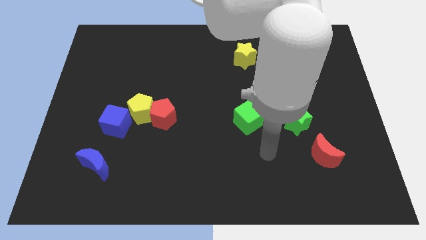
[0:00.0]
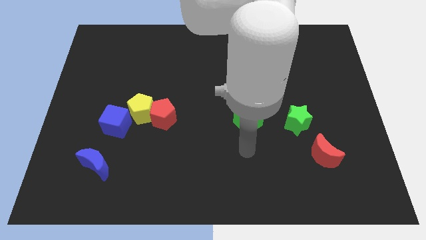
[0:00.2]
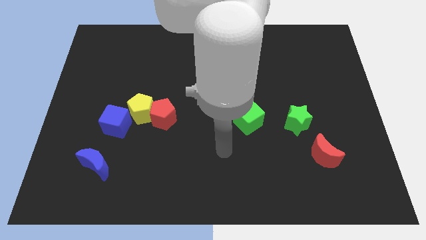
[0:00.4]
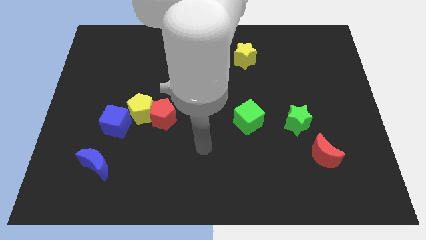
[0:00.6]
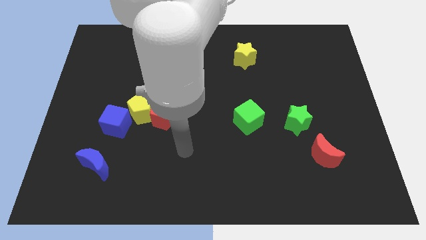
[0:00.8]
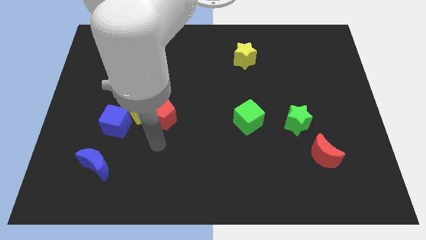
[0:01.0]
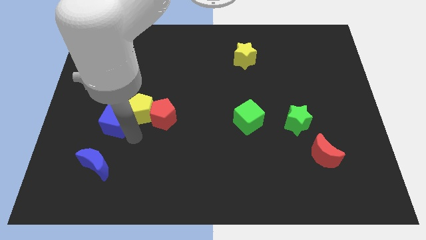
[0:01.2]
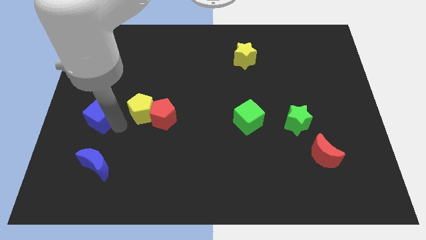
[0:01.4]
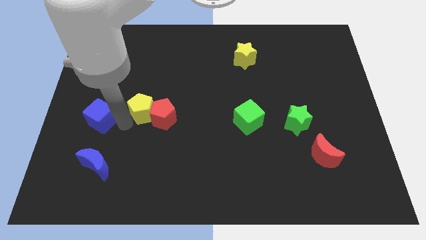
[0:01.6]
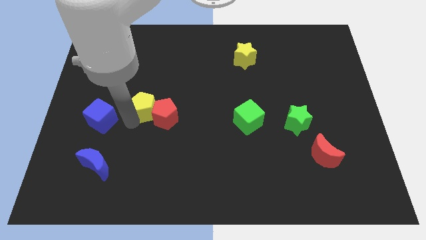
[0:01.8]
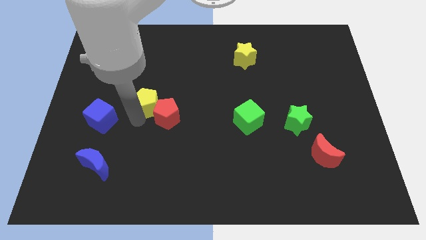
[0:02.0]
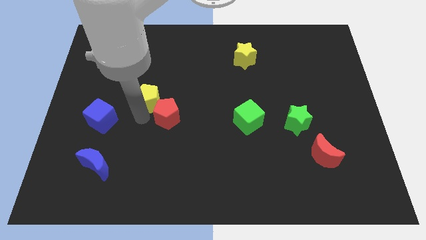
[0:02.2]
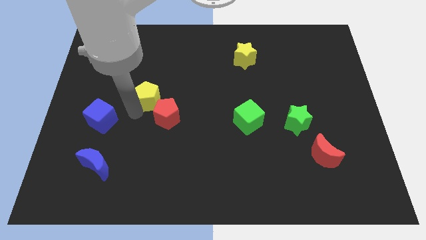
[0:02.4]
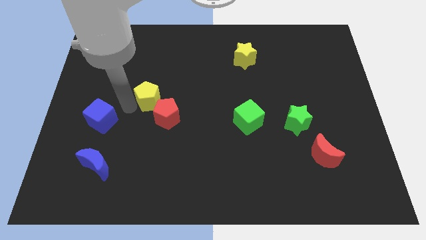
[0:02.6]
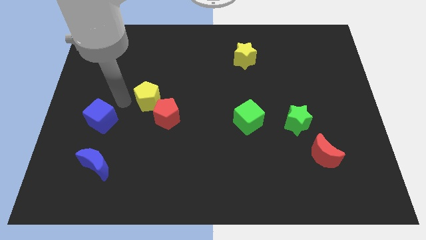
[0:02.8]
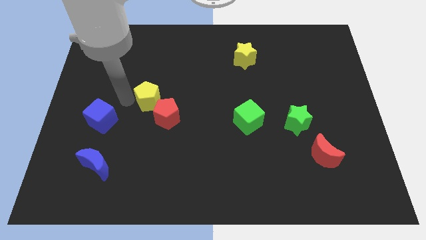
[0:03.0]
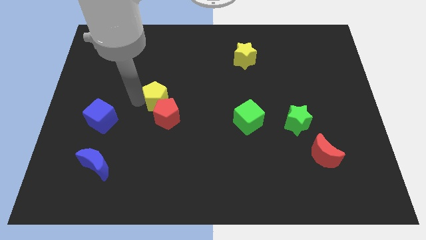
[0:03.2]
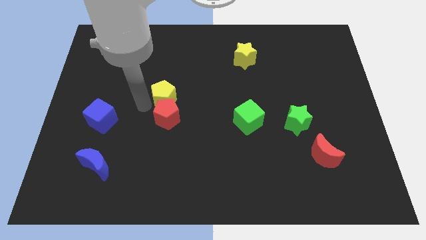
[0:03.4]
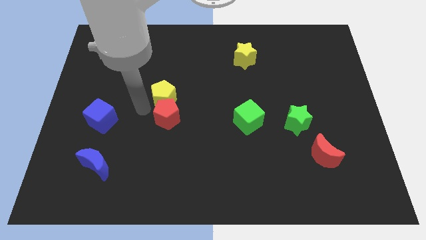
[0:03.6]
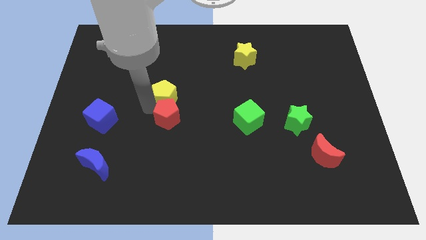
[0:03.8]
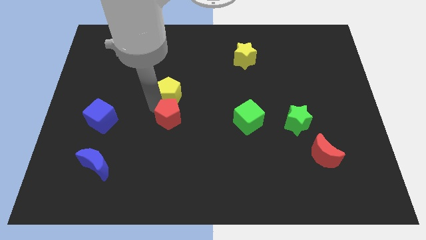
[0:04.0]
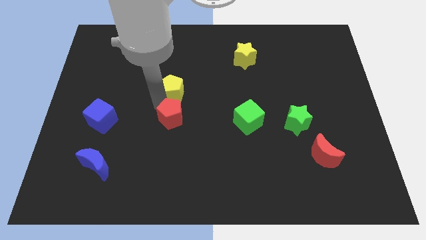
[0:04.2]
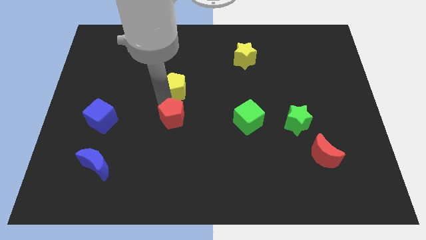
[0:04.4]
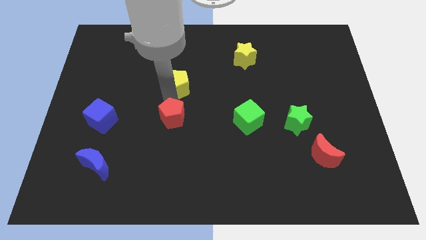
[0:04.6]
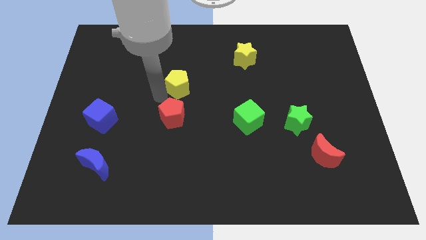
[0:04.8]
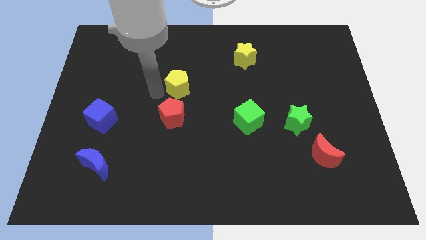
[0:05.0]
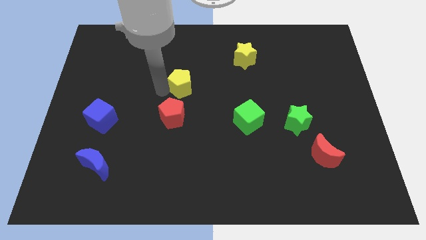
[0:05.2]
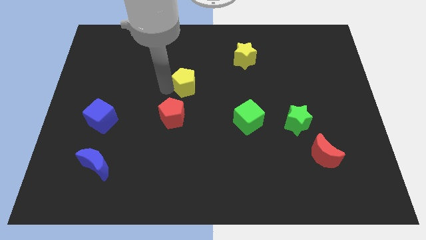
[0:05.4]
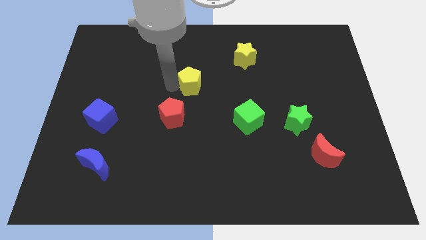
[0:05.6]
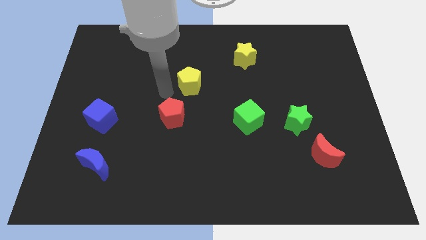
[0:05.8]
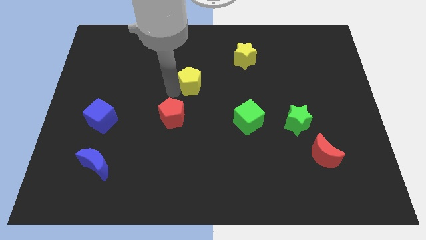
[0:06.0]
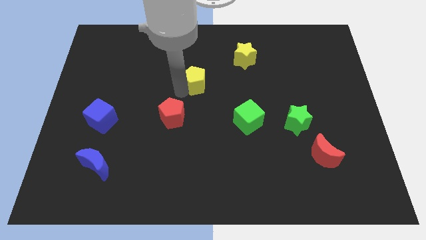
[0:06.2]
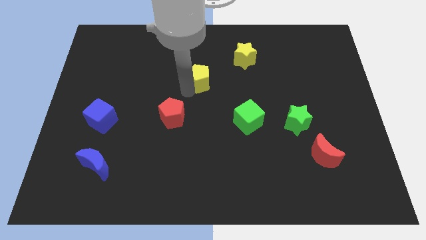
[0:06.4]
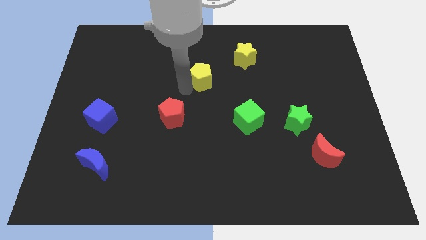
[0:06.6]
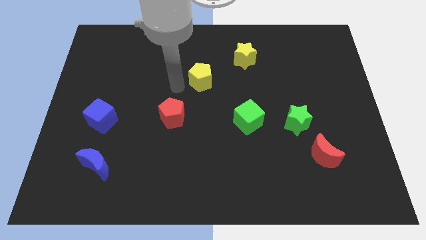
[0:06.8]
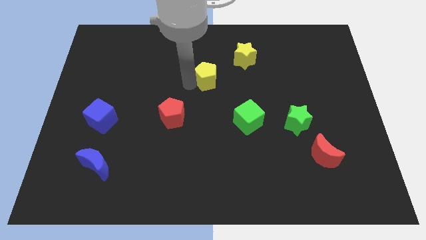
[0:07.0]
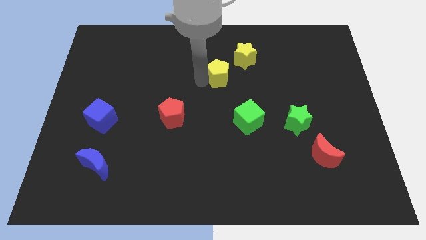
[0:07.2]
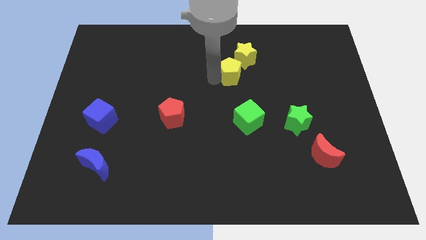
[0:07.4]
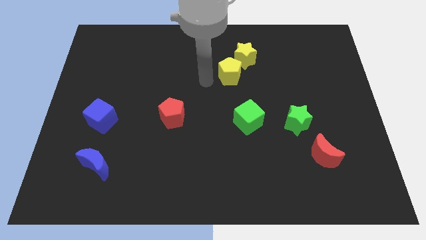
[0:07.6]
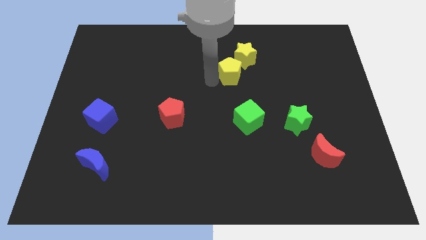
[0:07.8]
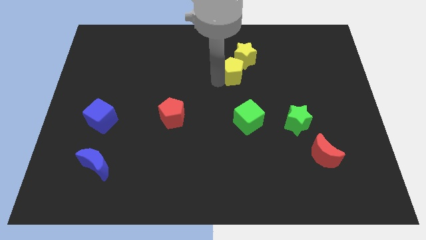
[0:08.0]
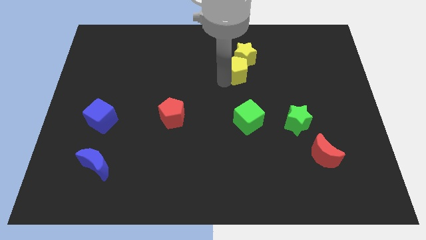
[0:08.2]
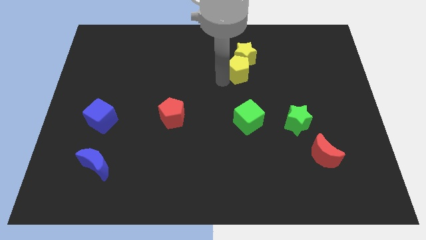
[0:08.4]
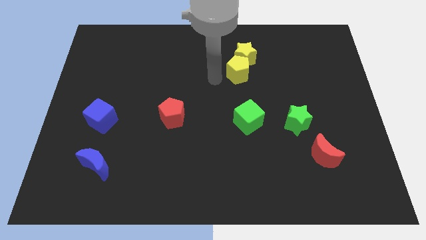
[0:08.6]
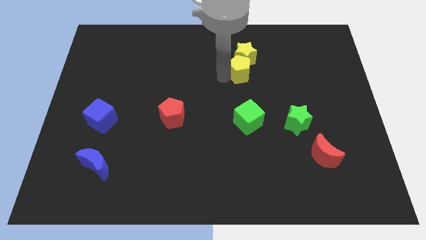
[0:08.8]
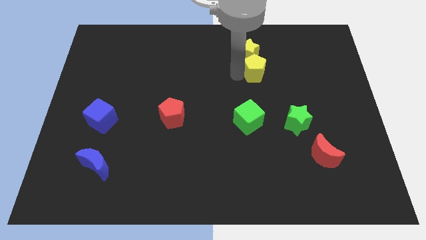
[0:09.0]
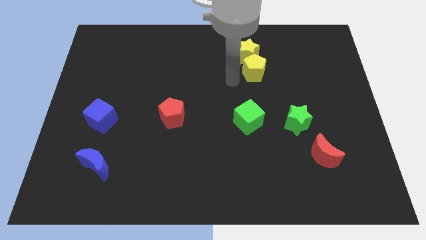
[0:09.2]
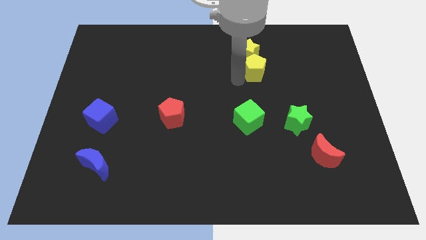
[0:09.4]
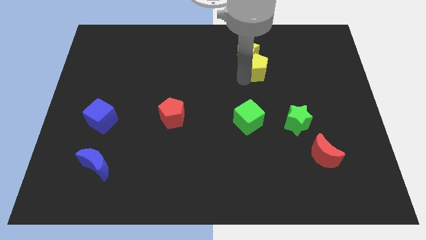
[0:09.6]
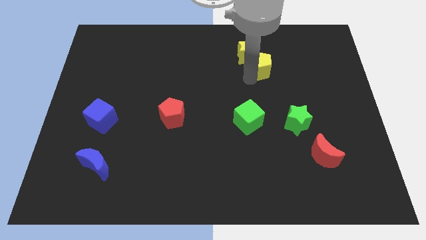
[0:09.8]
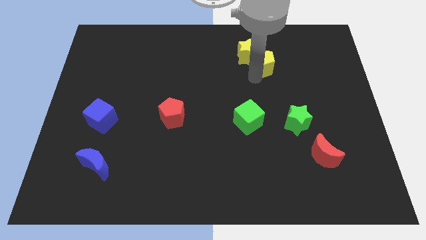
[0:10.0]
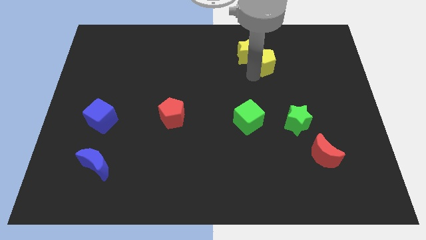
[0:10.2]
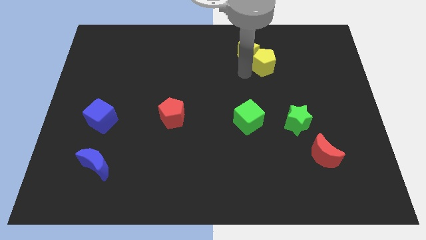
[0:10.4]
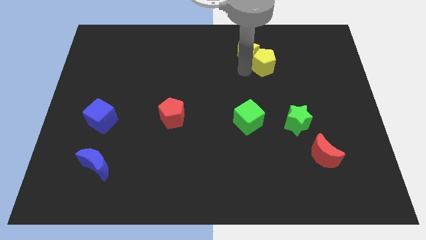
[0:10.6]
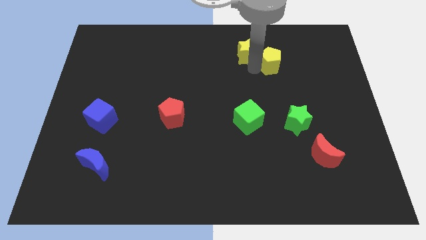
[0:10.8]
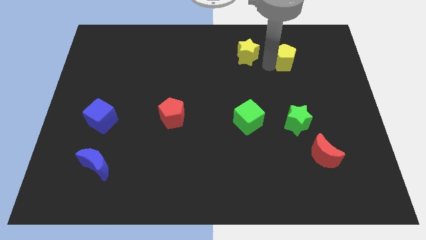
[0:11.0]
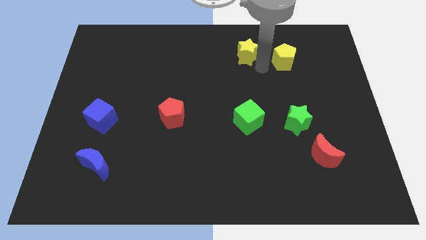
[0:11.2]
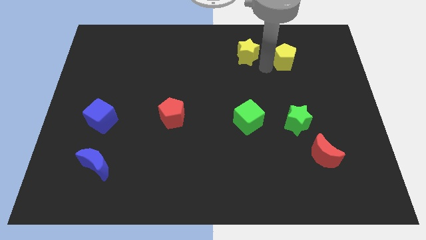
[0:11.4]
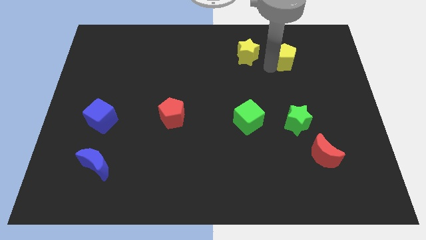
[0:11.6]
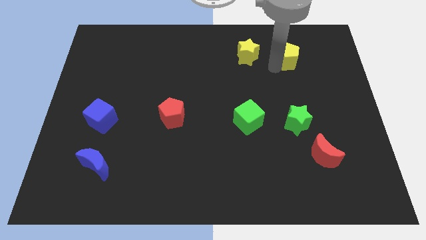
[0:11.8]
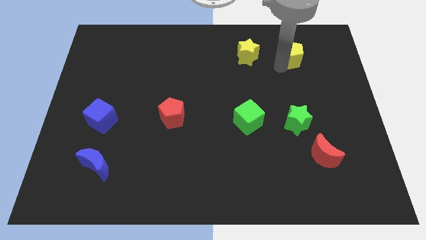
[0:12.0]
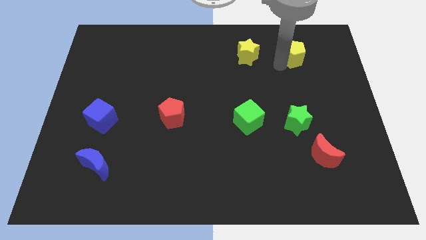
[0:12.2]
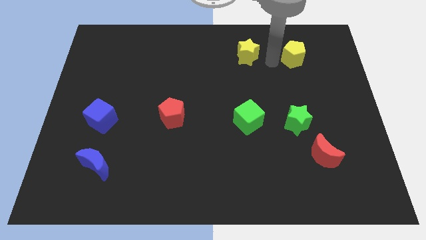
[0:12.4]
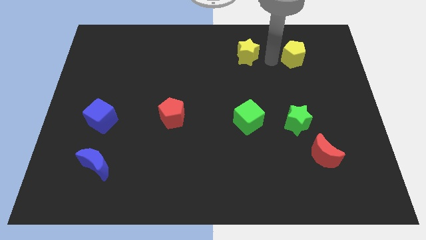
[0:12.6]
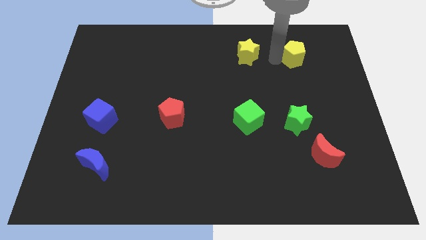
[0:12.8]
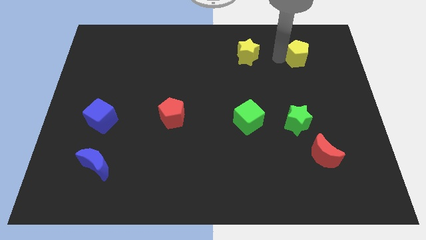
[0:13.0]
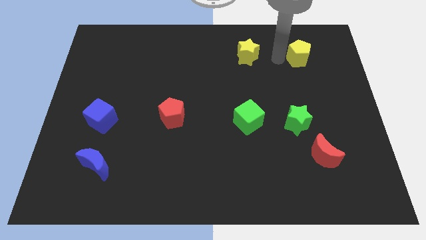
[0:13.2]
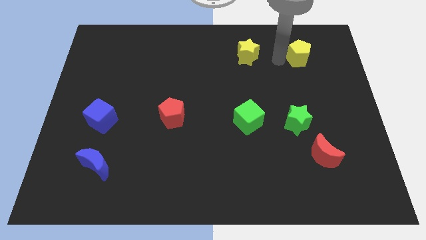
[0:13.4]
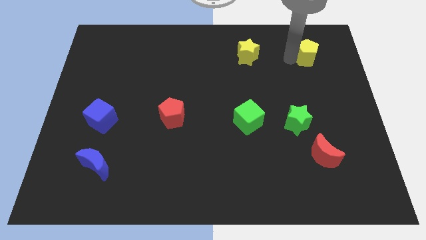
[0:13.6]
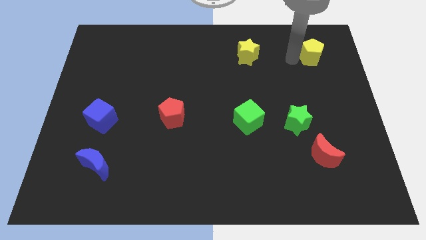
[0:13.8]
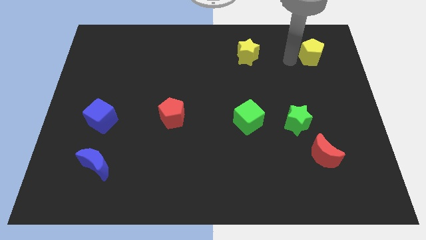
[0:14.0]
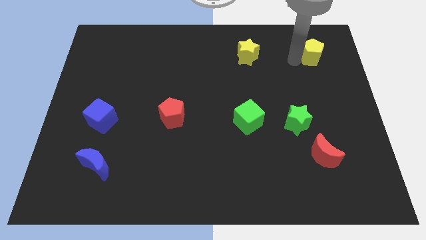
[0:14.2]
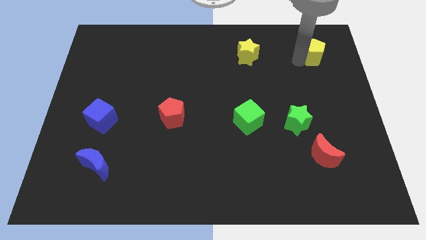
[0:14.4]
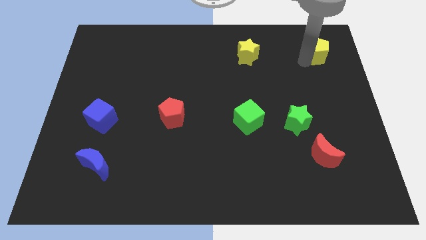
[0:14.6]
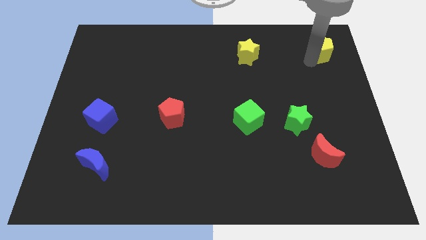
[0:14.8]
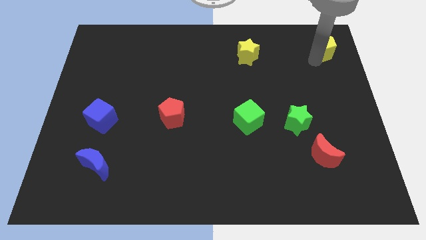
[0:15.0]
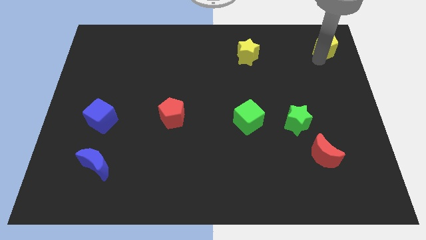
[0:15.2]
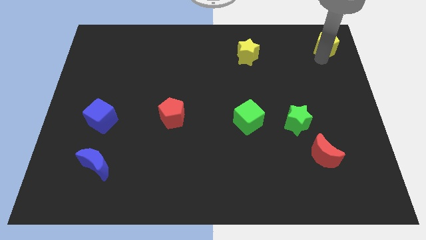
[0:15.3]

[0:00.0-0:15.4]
put the yellow pentagon to the top right of the board
